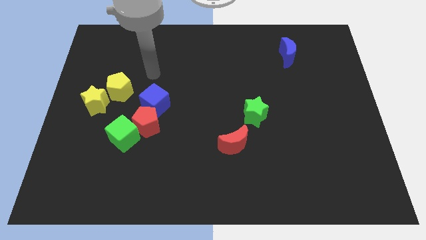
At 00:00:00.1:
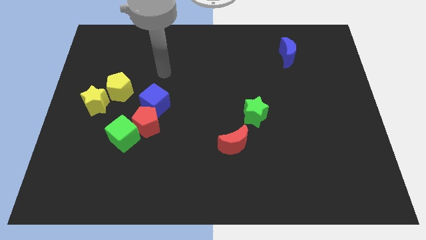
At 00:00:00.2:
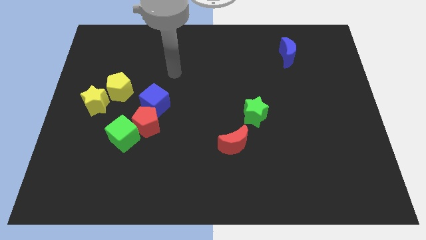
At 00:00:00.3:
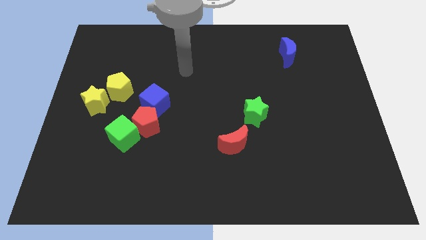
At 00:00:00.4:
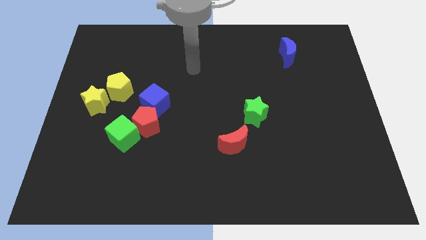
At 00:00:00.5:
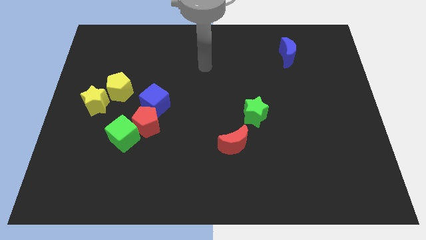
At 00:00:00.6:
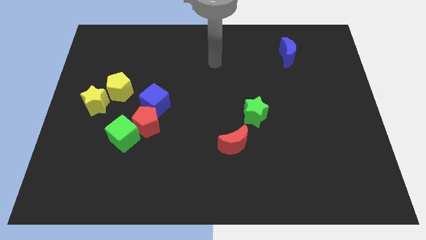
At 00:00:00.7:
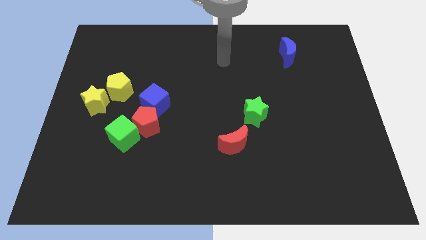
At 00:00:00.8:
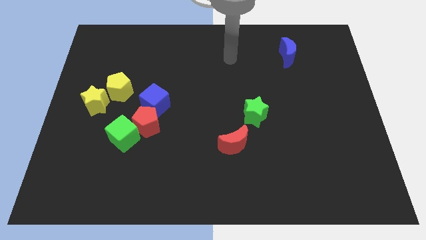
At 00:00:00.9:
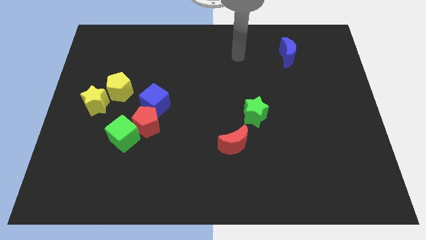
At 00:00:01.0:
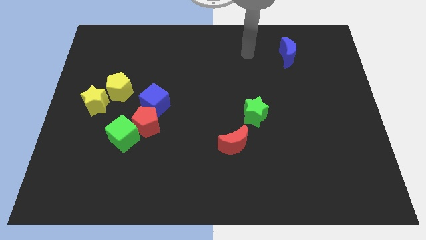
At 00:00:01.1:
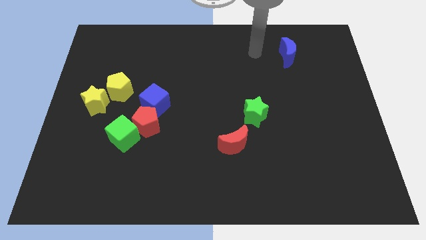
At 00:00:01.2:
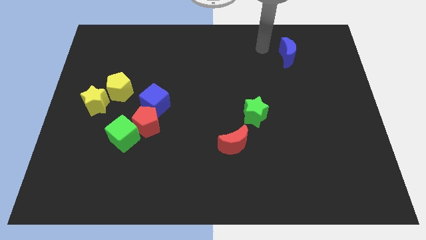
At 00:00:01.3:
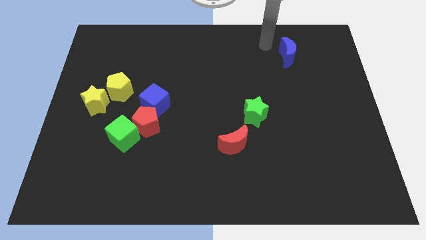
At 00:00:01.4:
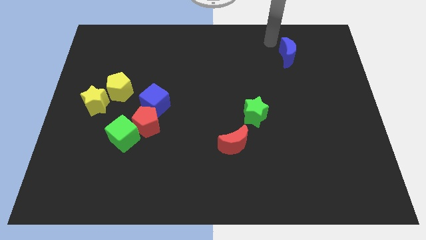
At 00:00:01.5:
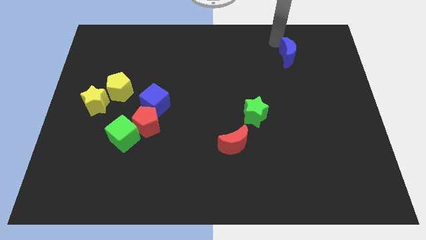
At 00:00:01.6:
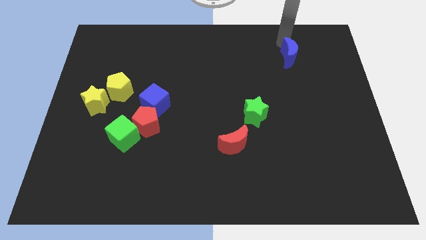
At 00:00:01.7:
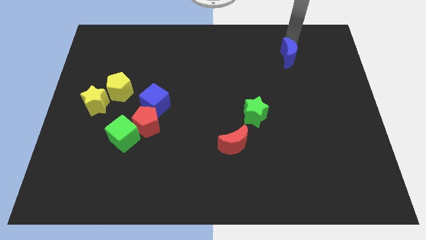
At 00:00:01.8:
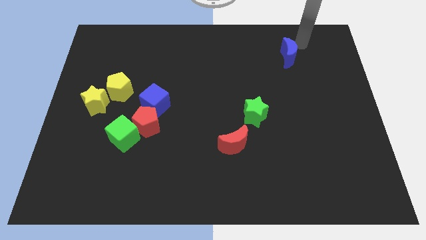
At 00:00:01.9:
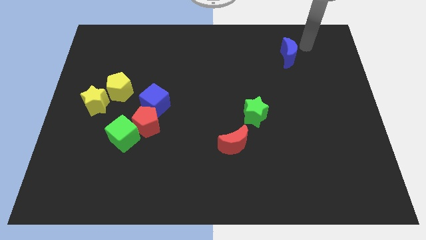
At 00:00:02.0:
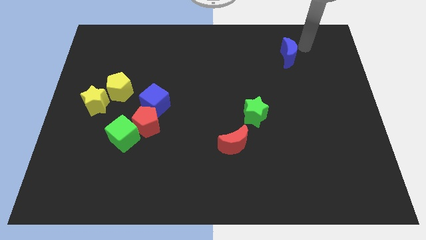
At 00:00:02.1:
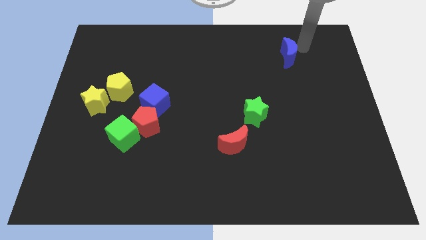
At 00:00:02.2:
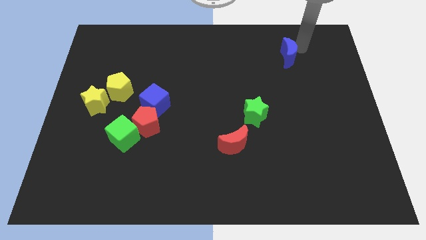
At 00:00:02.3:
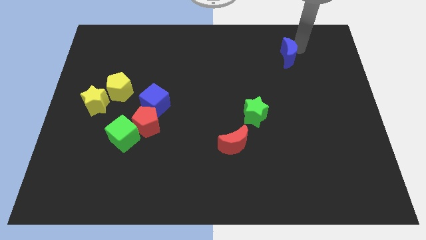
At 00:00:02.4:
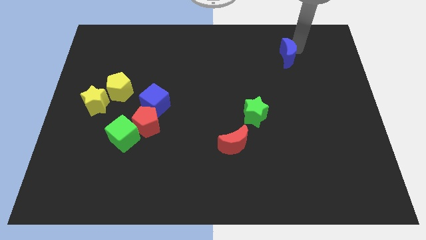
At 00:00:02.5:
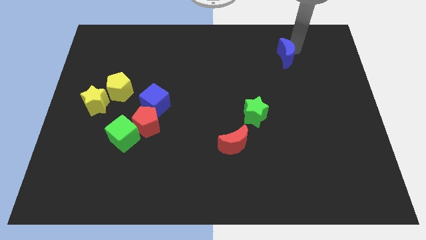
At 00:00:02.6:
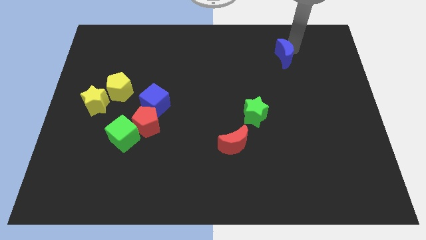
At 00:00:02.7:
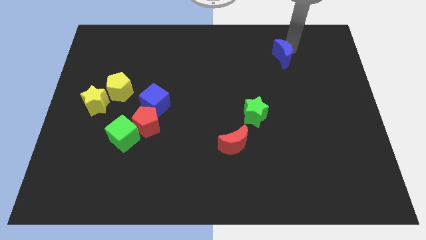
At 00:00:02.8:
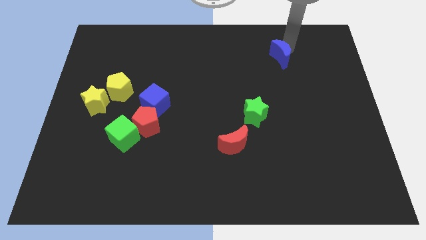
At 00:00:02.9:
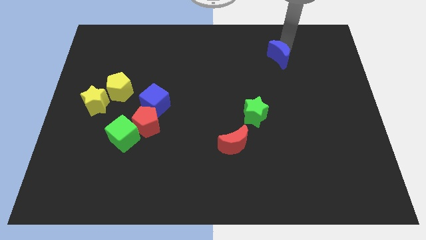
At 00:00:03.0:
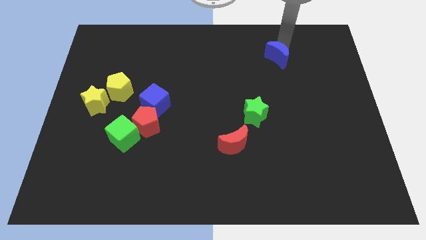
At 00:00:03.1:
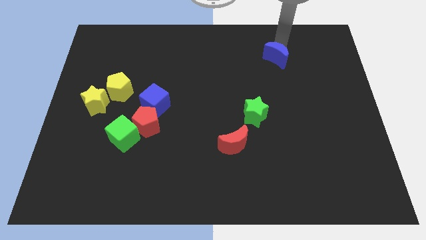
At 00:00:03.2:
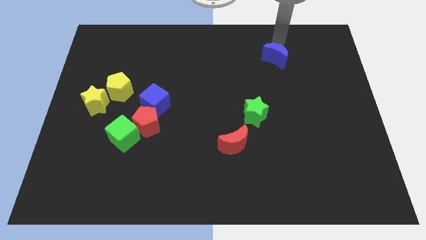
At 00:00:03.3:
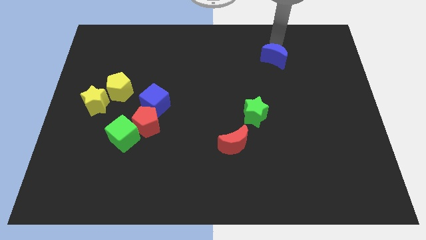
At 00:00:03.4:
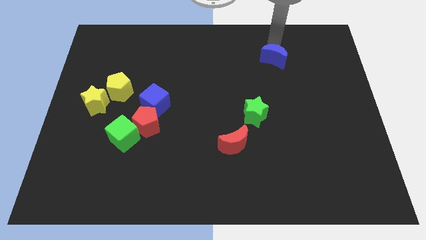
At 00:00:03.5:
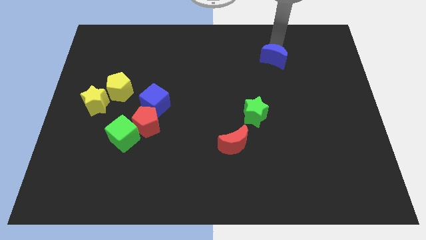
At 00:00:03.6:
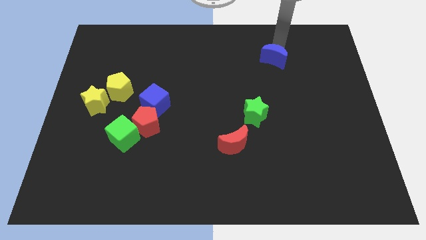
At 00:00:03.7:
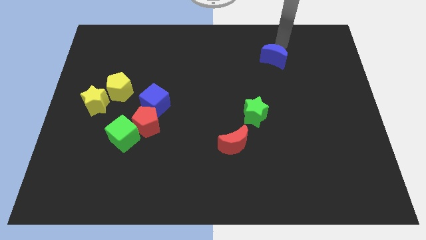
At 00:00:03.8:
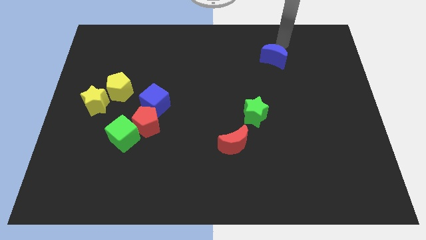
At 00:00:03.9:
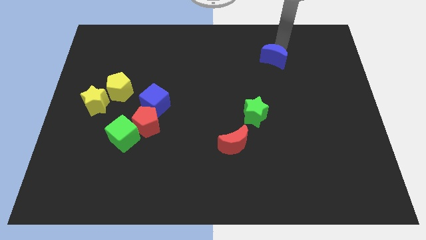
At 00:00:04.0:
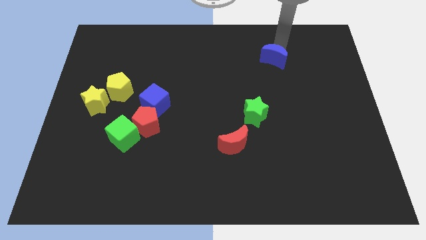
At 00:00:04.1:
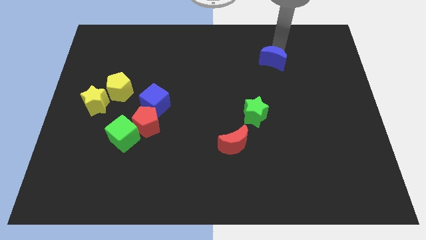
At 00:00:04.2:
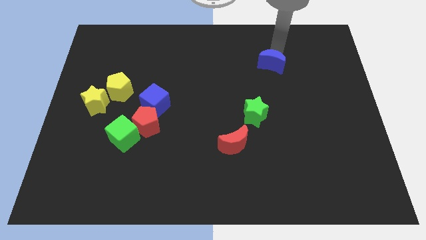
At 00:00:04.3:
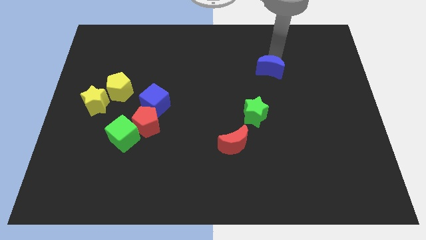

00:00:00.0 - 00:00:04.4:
slightly slide the blue moon downwards and then to the left

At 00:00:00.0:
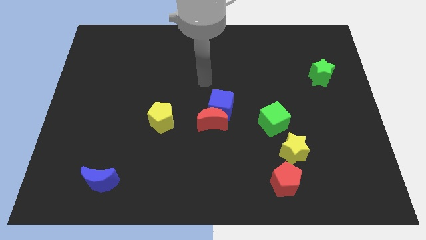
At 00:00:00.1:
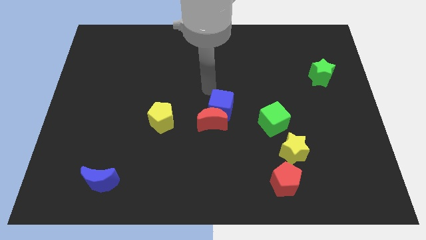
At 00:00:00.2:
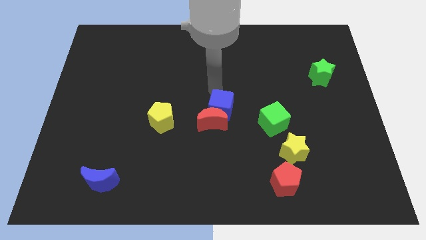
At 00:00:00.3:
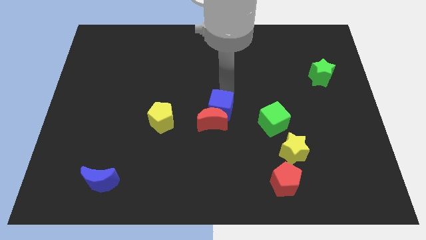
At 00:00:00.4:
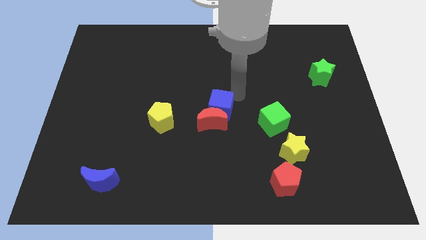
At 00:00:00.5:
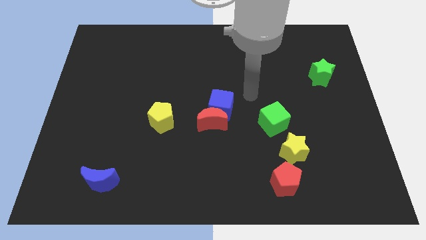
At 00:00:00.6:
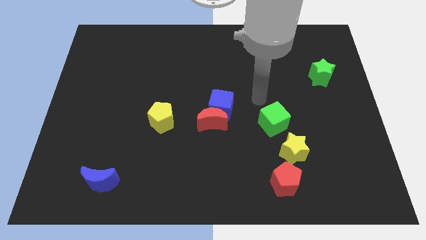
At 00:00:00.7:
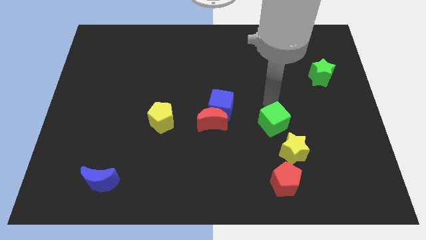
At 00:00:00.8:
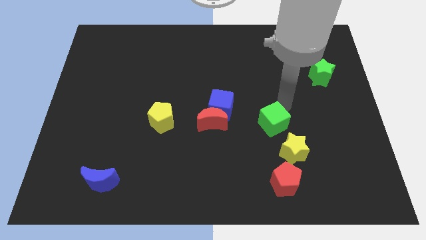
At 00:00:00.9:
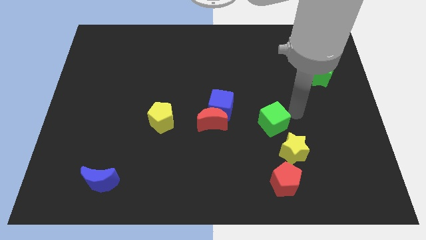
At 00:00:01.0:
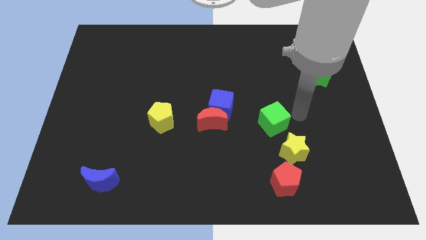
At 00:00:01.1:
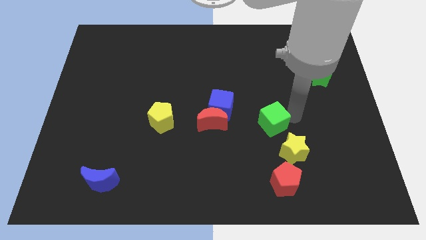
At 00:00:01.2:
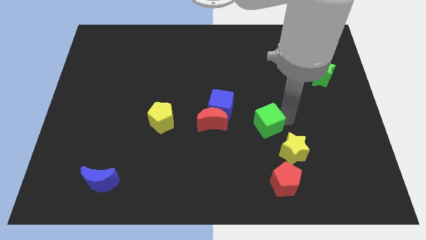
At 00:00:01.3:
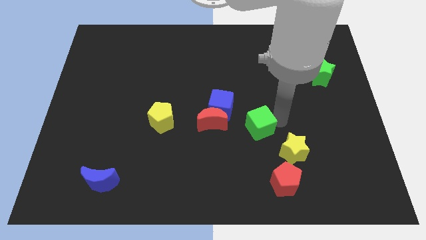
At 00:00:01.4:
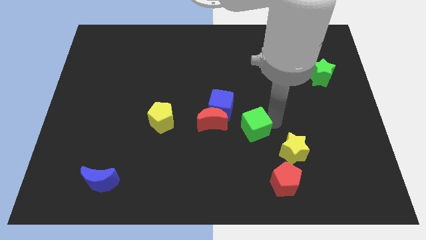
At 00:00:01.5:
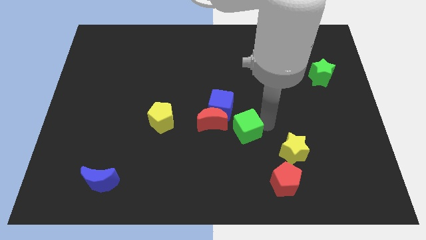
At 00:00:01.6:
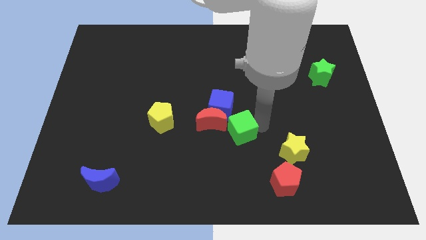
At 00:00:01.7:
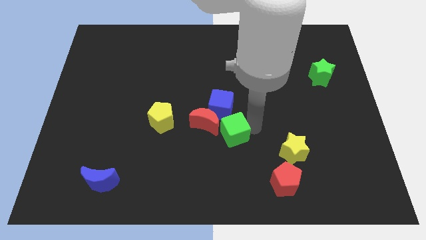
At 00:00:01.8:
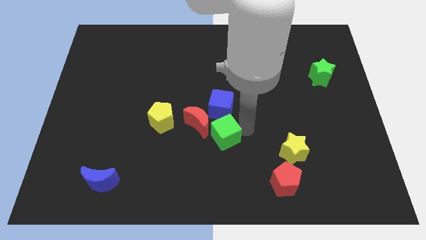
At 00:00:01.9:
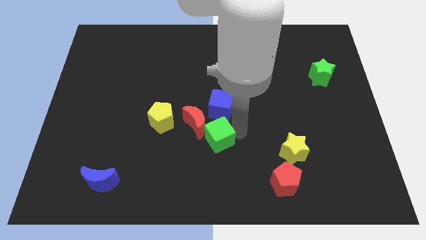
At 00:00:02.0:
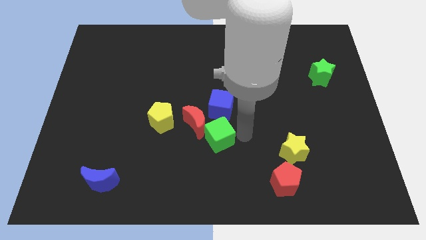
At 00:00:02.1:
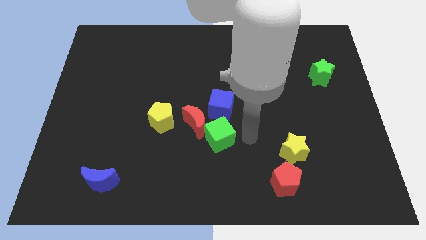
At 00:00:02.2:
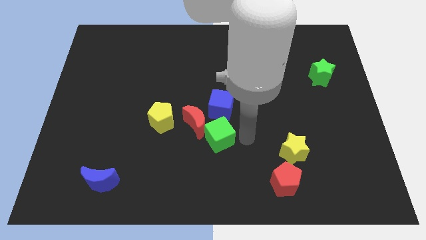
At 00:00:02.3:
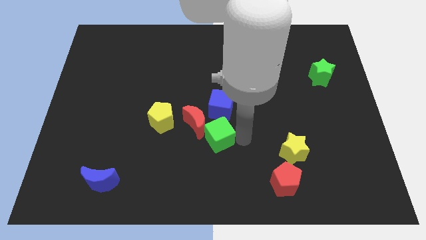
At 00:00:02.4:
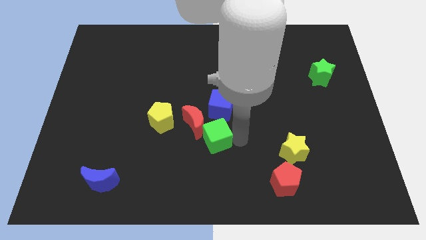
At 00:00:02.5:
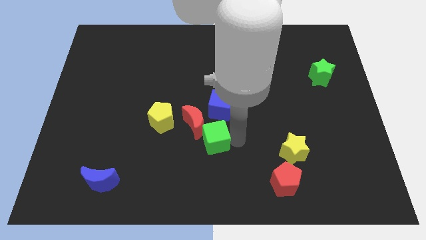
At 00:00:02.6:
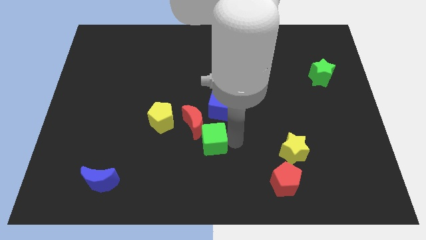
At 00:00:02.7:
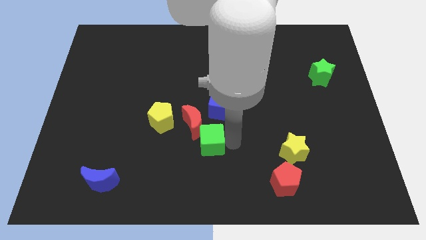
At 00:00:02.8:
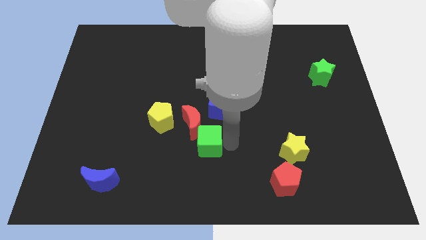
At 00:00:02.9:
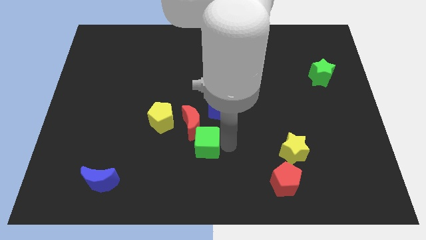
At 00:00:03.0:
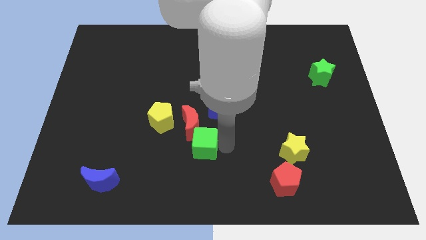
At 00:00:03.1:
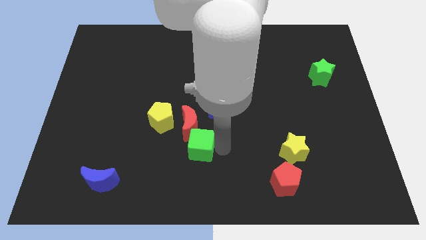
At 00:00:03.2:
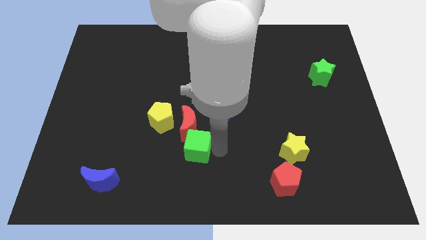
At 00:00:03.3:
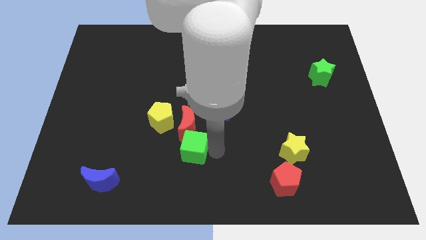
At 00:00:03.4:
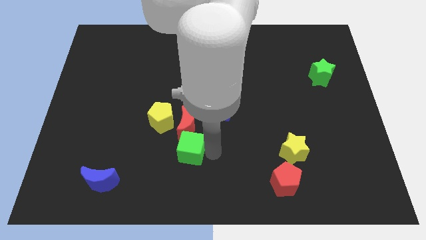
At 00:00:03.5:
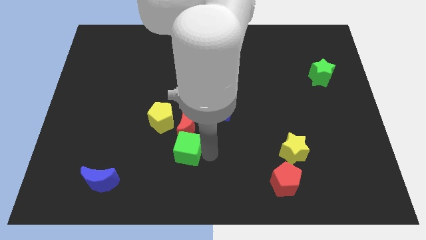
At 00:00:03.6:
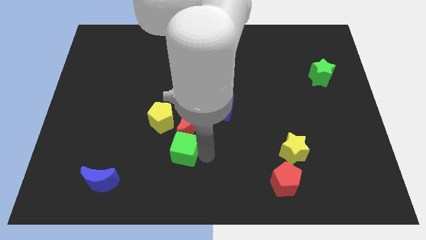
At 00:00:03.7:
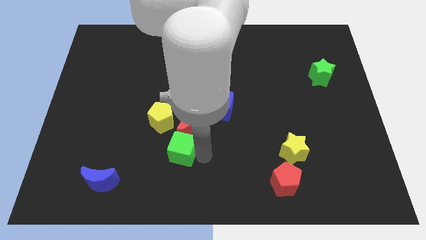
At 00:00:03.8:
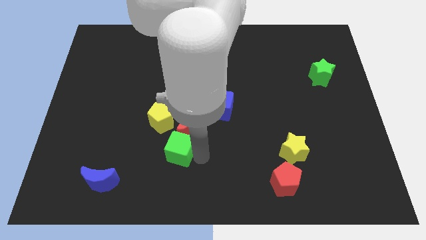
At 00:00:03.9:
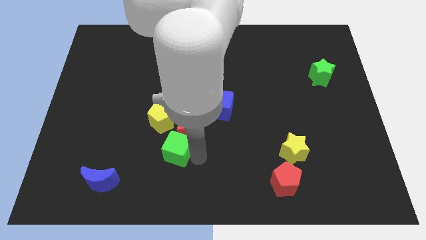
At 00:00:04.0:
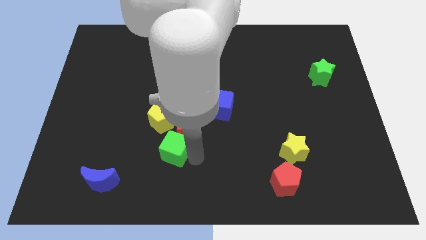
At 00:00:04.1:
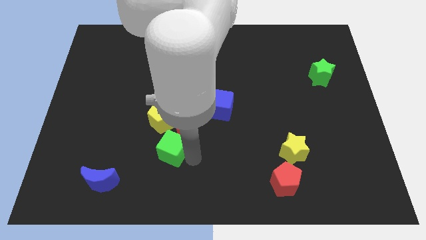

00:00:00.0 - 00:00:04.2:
slide the green cube left
